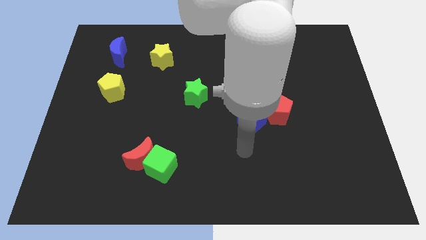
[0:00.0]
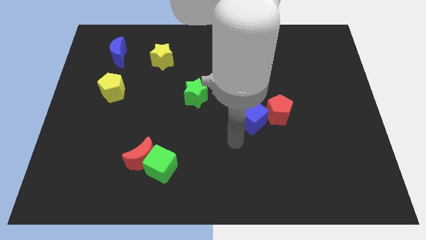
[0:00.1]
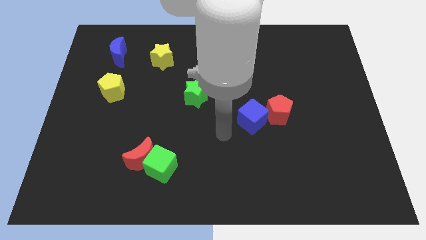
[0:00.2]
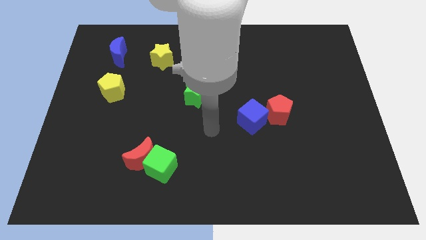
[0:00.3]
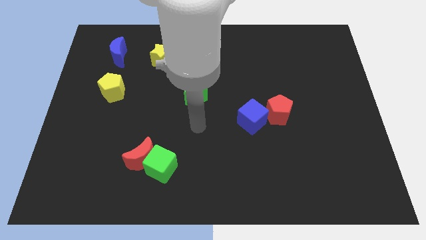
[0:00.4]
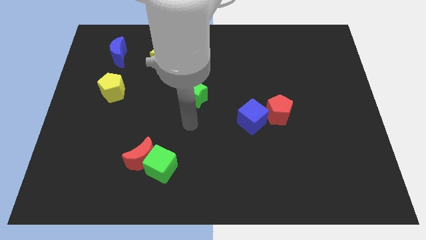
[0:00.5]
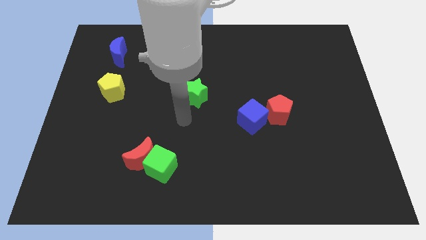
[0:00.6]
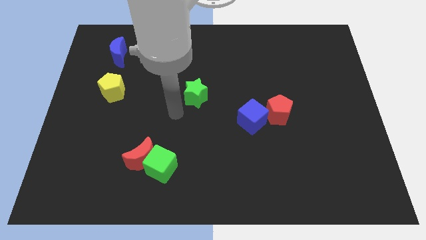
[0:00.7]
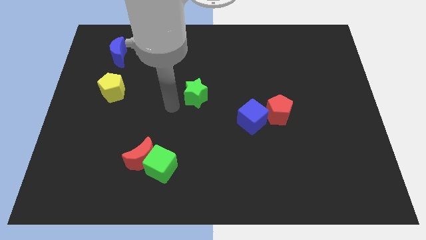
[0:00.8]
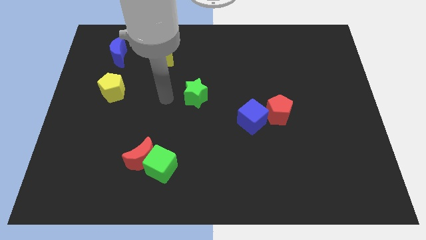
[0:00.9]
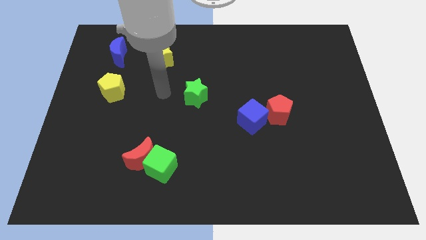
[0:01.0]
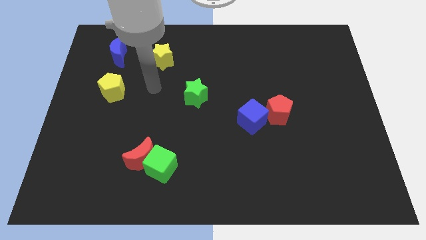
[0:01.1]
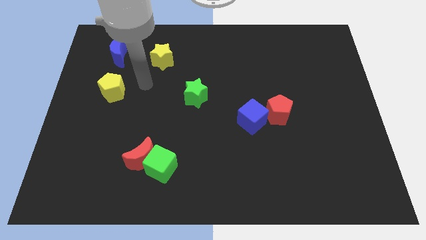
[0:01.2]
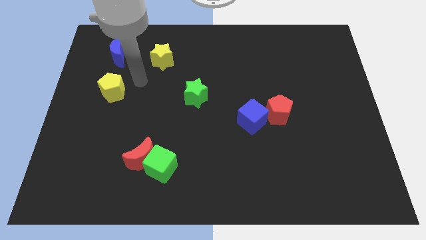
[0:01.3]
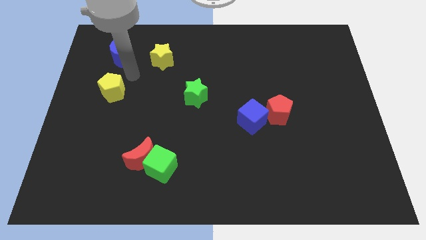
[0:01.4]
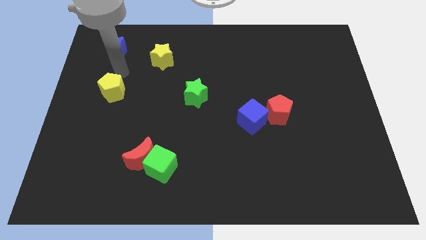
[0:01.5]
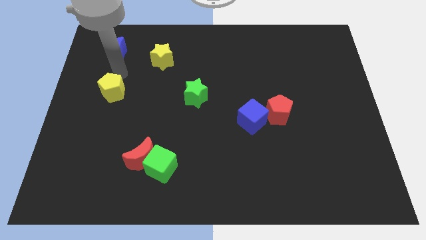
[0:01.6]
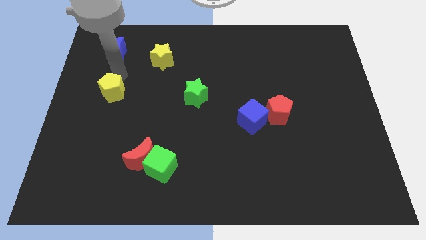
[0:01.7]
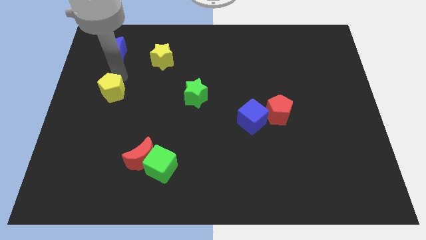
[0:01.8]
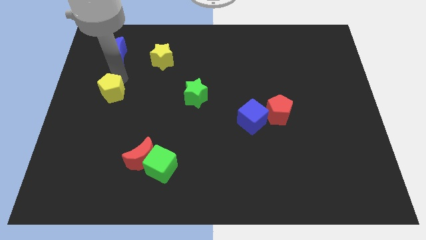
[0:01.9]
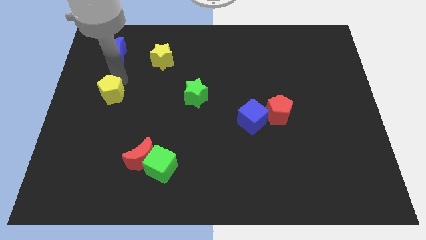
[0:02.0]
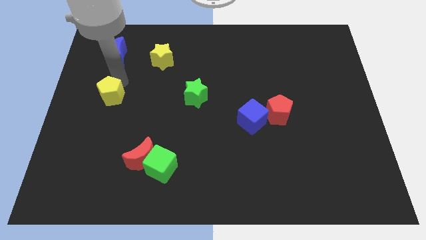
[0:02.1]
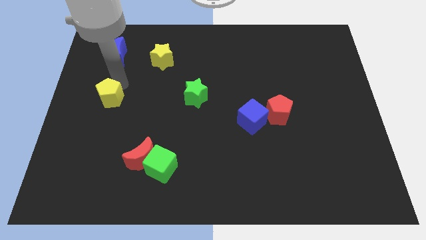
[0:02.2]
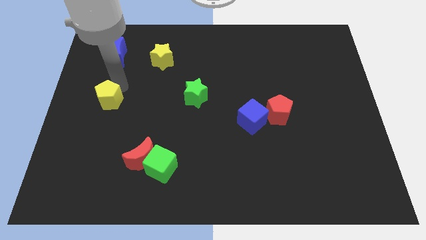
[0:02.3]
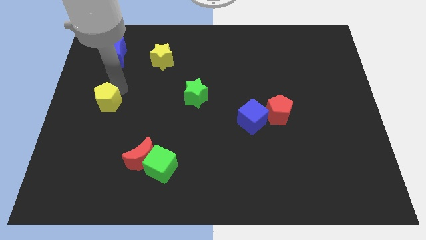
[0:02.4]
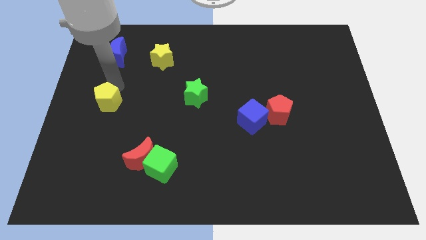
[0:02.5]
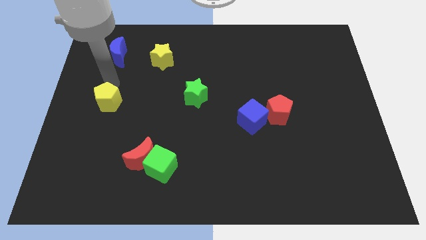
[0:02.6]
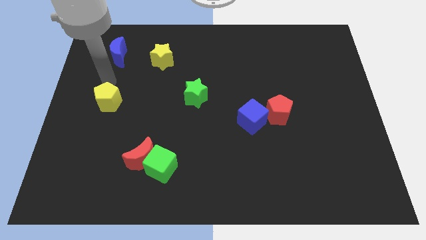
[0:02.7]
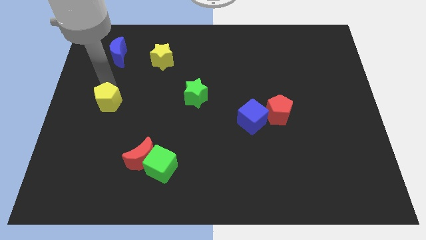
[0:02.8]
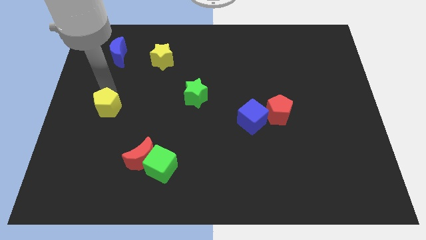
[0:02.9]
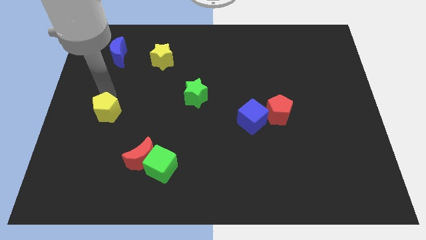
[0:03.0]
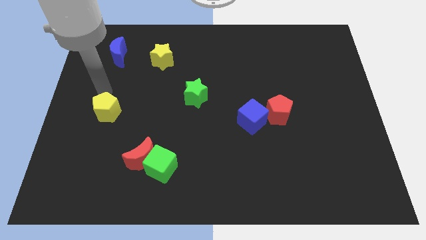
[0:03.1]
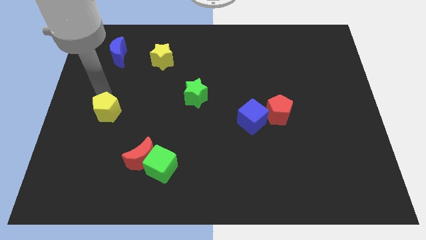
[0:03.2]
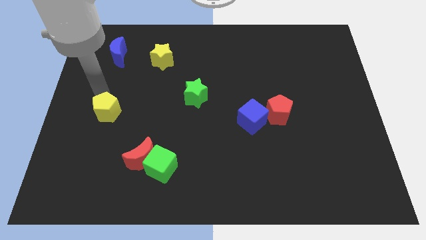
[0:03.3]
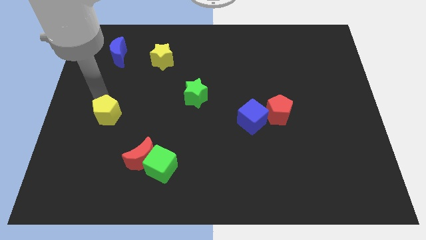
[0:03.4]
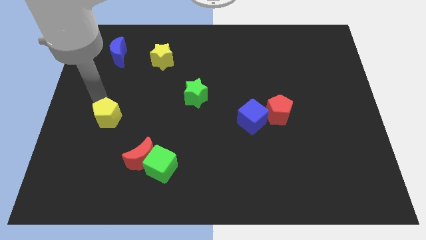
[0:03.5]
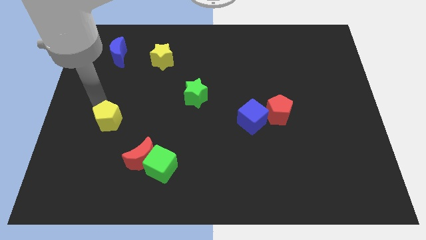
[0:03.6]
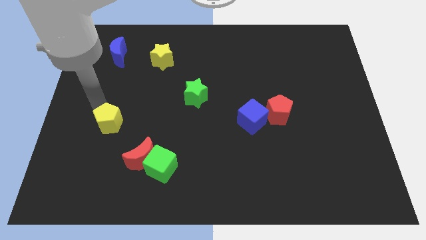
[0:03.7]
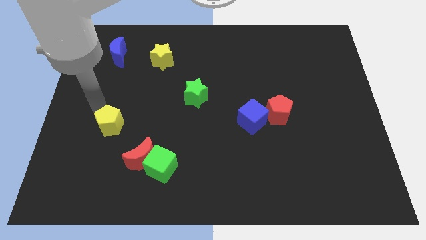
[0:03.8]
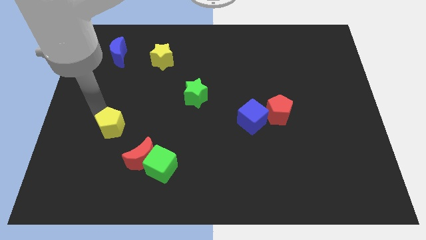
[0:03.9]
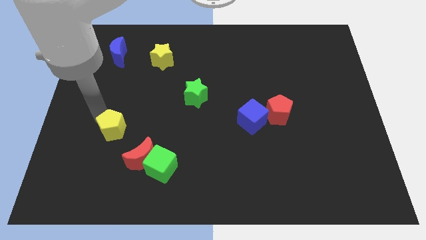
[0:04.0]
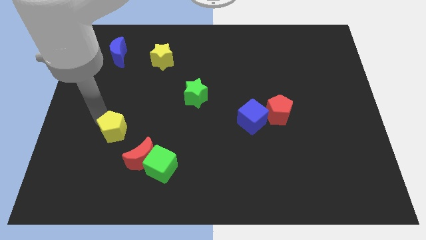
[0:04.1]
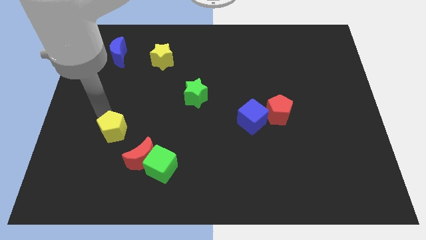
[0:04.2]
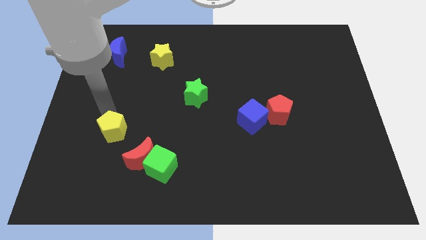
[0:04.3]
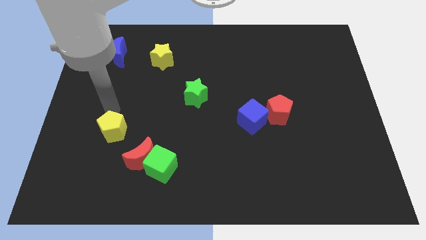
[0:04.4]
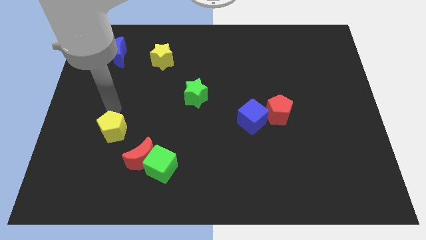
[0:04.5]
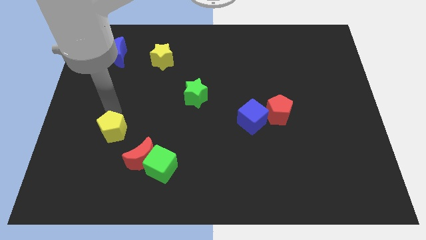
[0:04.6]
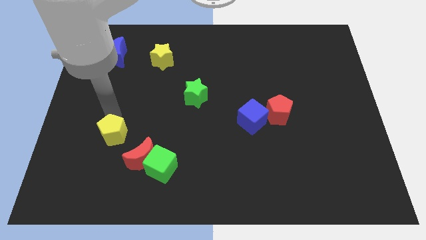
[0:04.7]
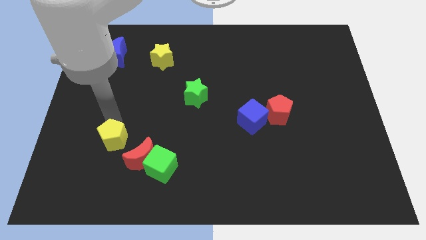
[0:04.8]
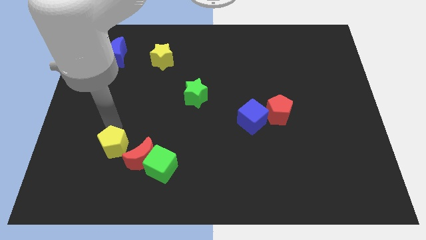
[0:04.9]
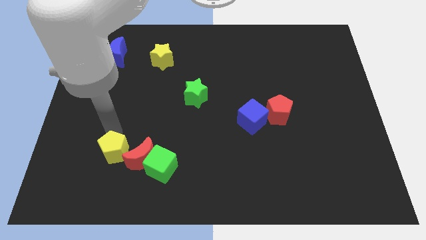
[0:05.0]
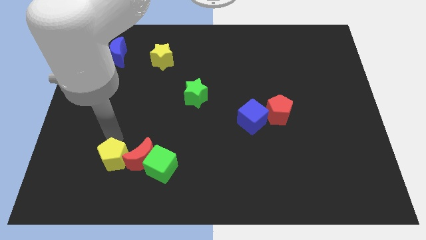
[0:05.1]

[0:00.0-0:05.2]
slide the yellow pentagon diagonally down and to the left of the red moon

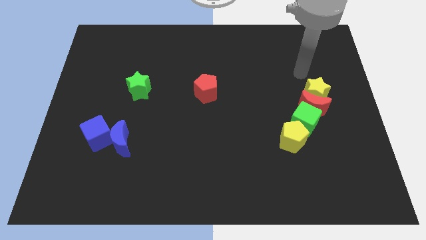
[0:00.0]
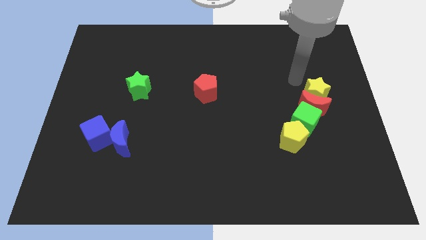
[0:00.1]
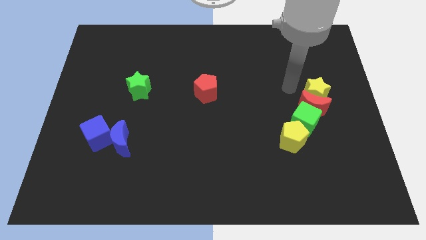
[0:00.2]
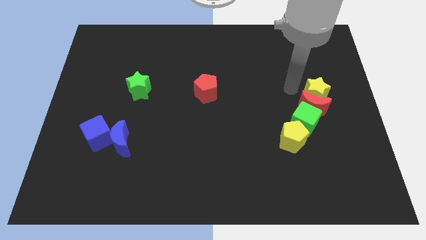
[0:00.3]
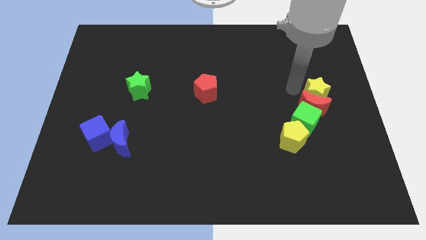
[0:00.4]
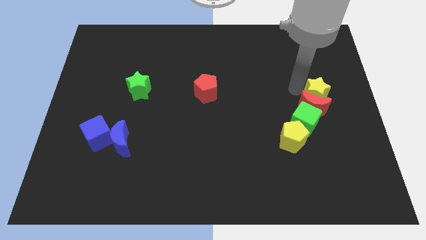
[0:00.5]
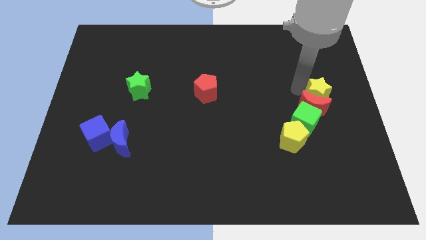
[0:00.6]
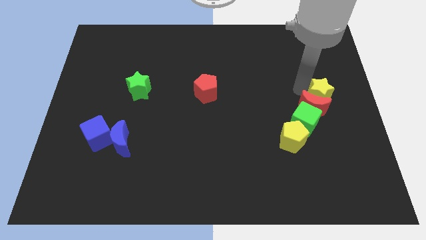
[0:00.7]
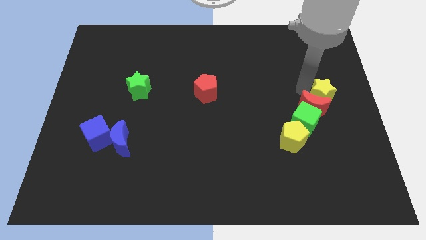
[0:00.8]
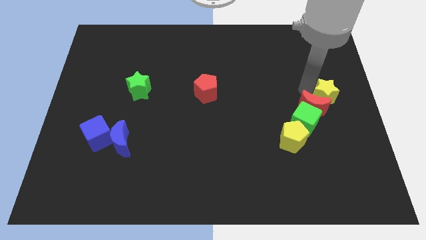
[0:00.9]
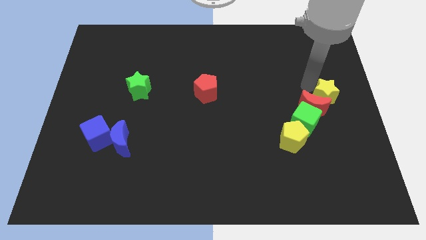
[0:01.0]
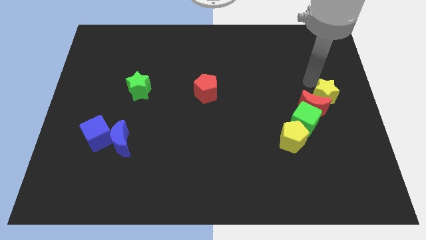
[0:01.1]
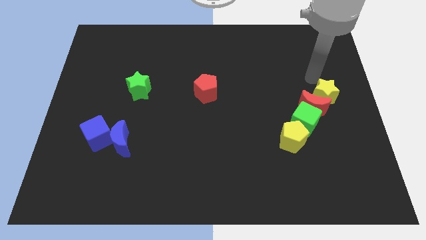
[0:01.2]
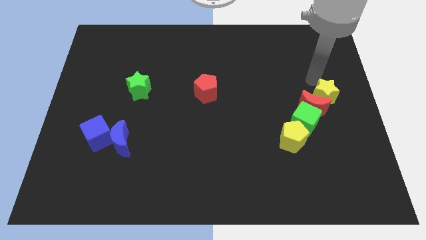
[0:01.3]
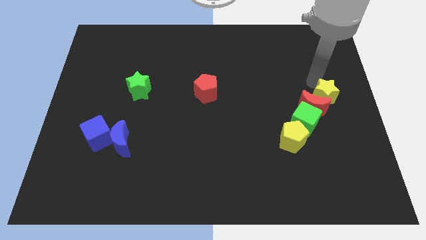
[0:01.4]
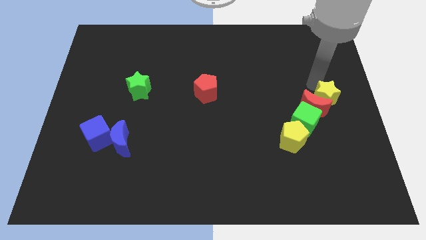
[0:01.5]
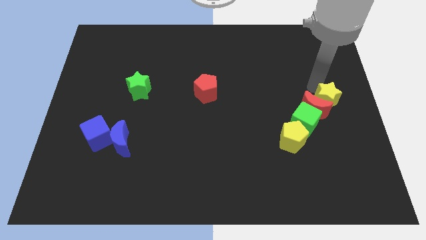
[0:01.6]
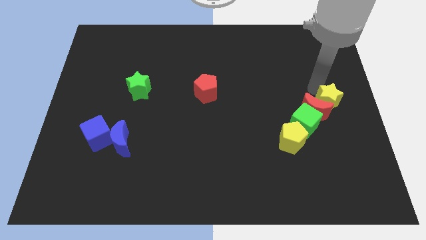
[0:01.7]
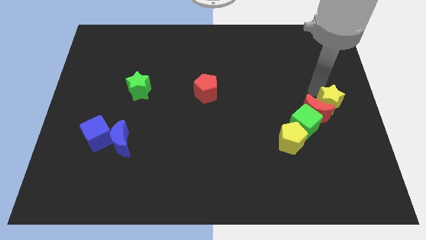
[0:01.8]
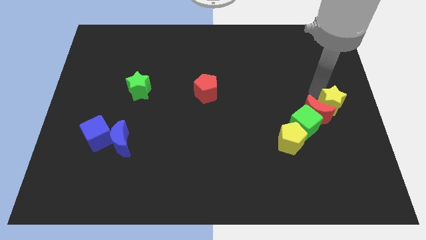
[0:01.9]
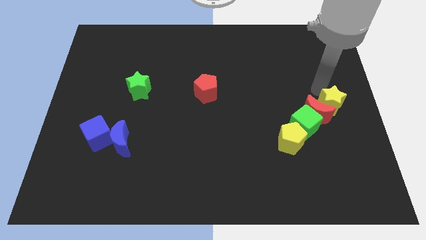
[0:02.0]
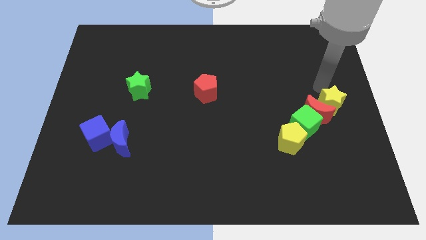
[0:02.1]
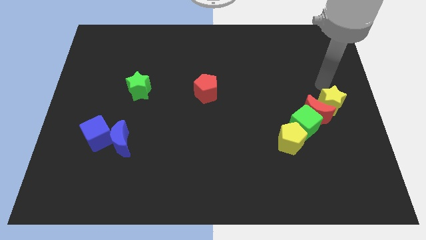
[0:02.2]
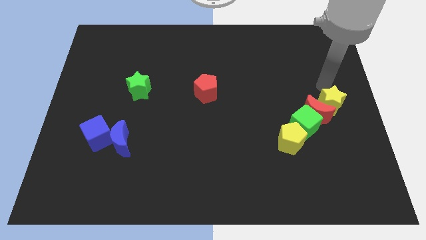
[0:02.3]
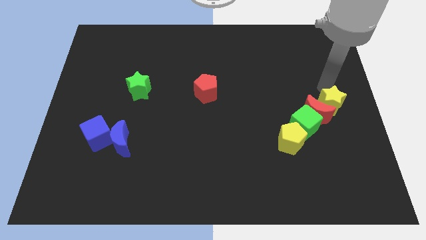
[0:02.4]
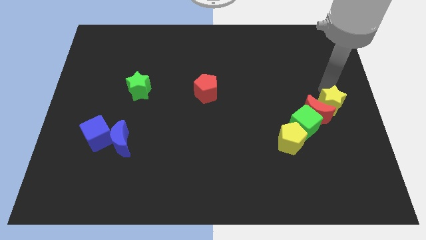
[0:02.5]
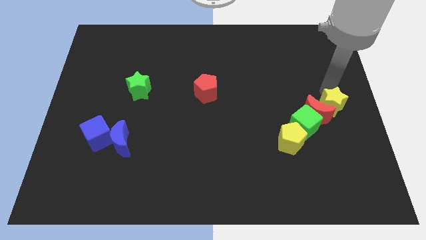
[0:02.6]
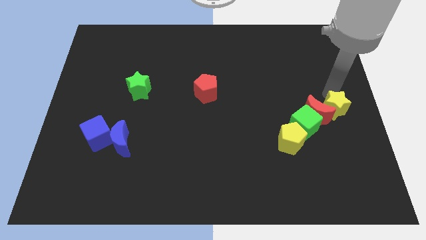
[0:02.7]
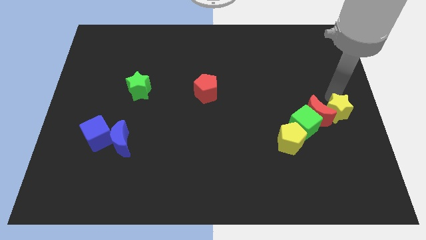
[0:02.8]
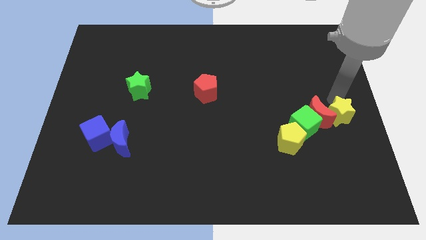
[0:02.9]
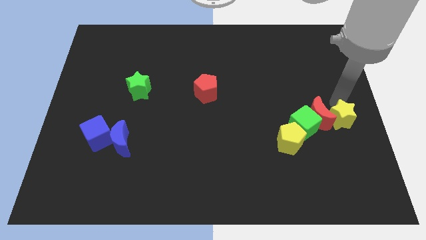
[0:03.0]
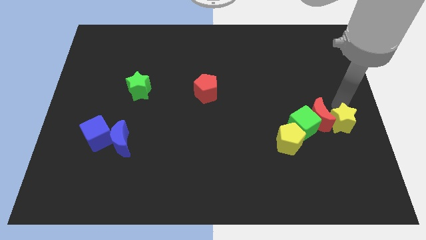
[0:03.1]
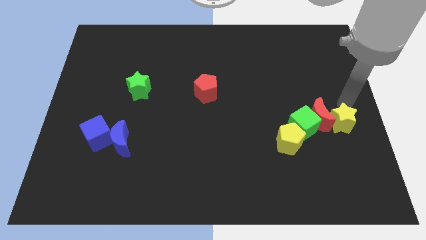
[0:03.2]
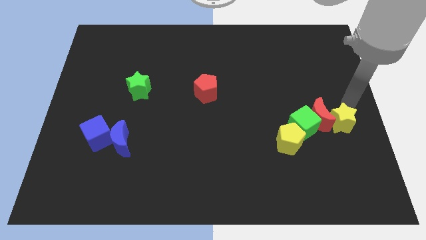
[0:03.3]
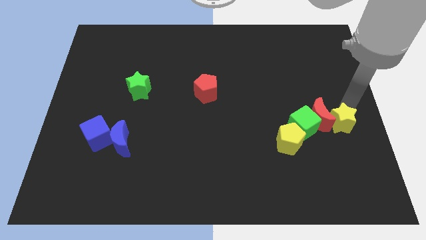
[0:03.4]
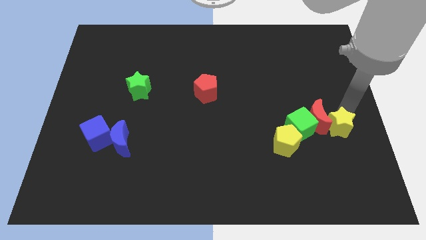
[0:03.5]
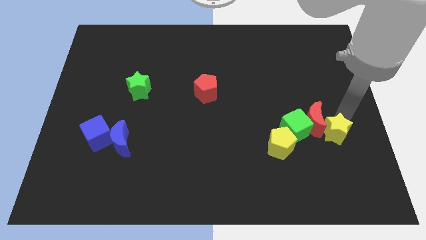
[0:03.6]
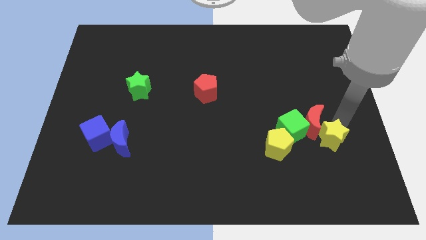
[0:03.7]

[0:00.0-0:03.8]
move the yellow star diagonally down and to the right of the green cube
